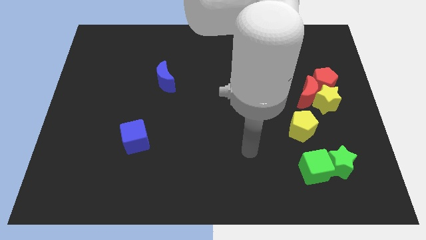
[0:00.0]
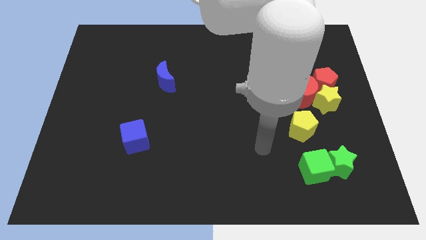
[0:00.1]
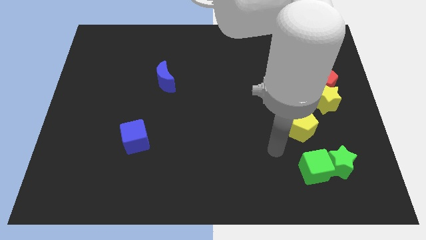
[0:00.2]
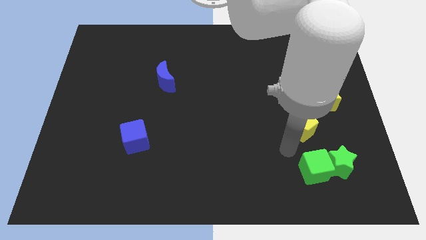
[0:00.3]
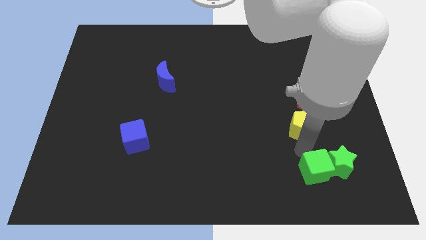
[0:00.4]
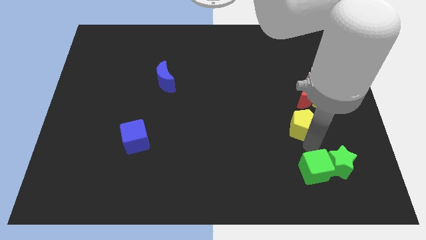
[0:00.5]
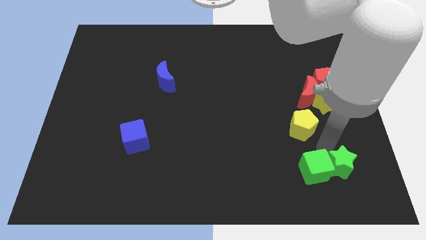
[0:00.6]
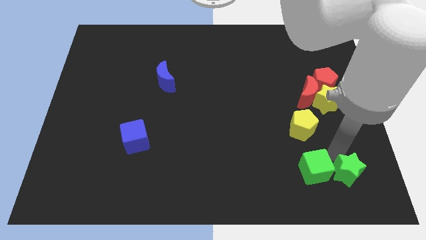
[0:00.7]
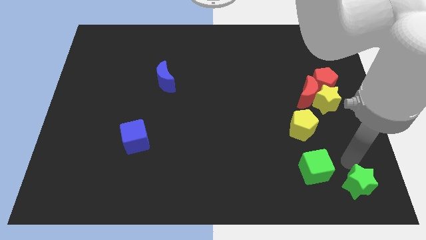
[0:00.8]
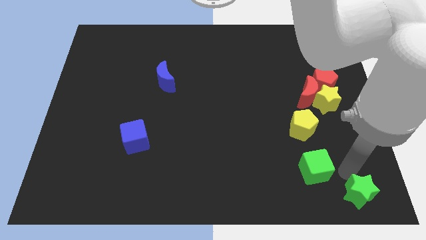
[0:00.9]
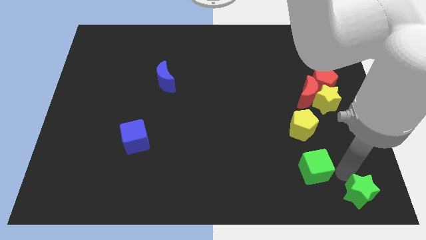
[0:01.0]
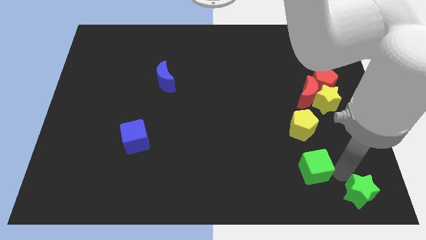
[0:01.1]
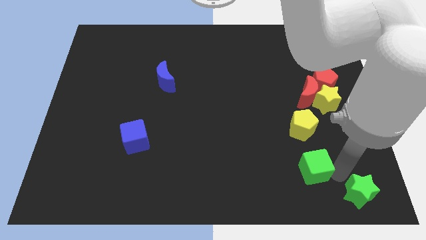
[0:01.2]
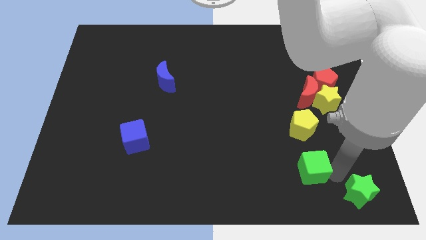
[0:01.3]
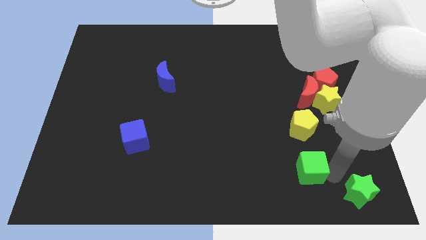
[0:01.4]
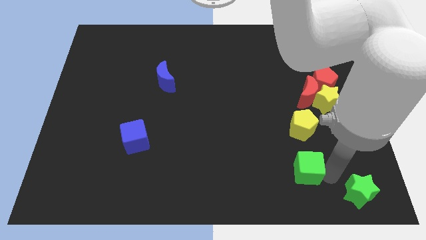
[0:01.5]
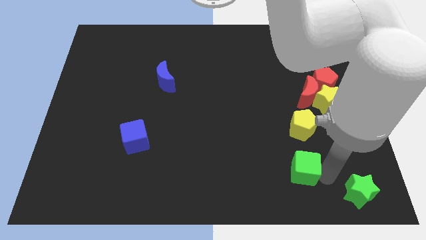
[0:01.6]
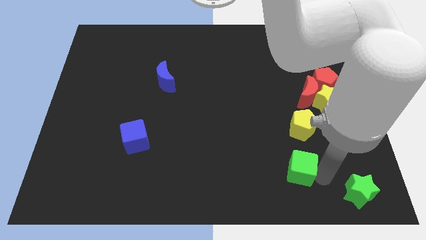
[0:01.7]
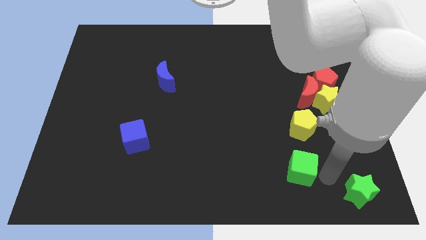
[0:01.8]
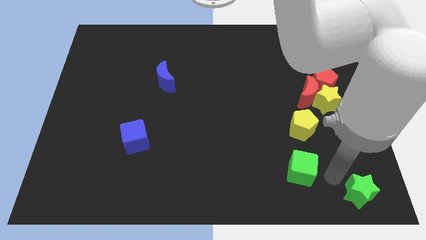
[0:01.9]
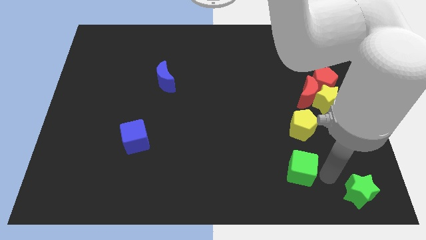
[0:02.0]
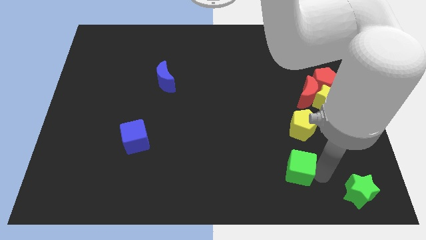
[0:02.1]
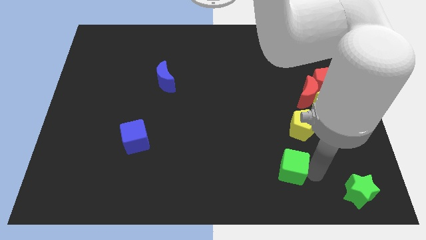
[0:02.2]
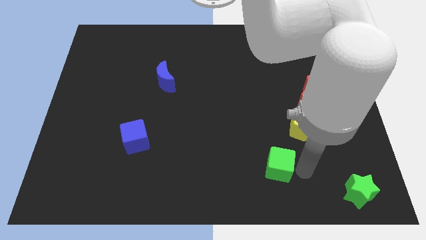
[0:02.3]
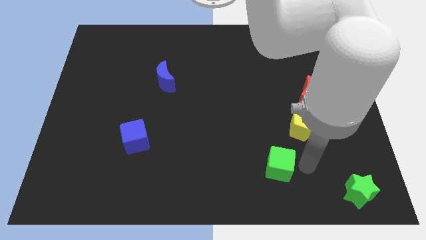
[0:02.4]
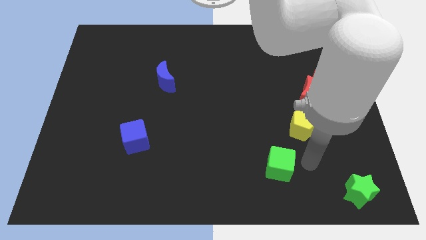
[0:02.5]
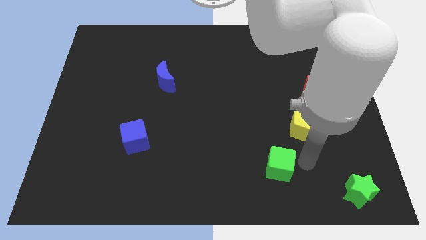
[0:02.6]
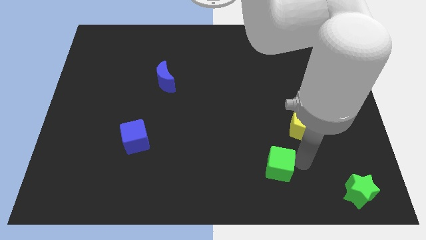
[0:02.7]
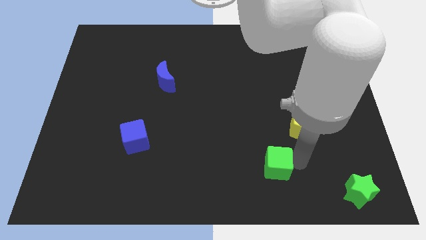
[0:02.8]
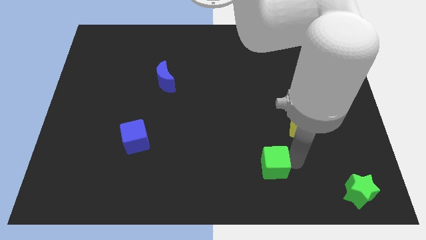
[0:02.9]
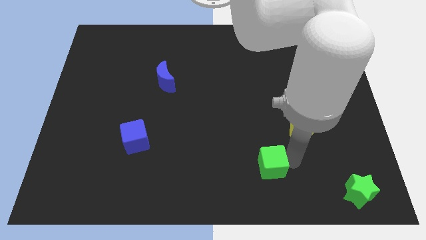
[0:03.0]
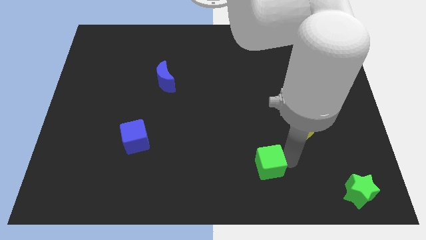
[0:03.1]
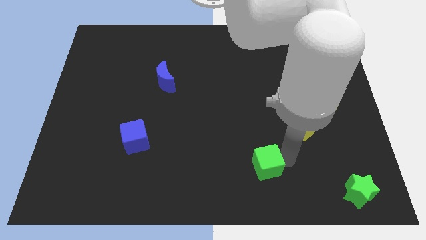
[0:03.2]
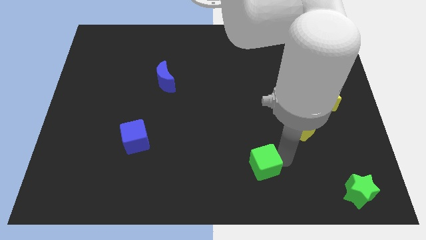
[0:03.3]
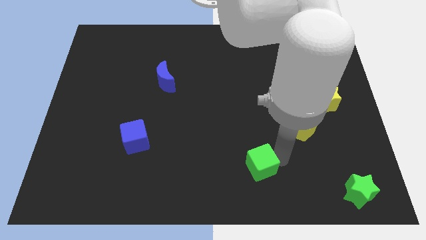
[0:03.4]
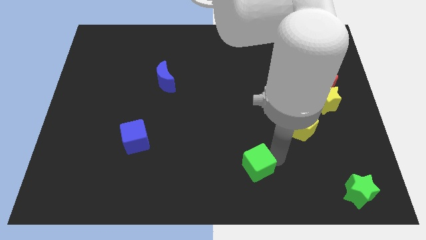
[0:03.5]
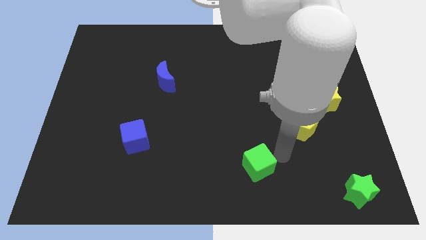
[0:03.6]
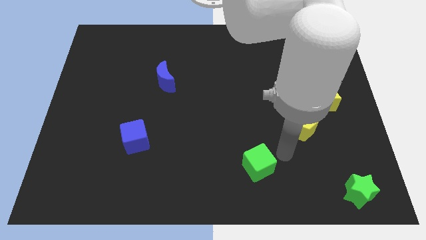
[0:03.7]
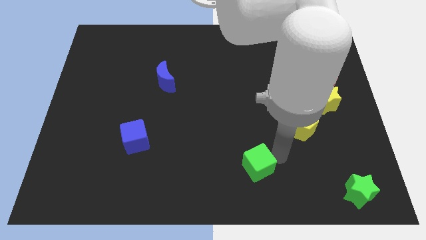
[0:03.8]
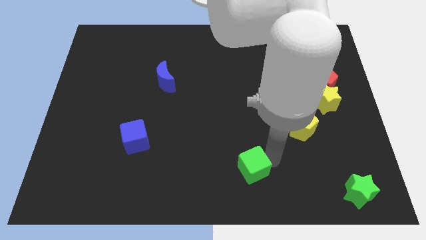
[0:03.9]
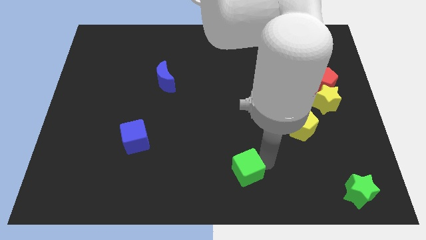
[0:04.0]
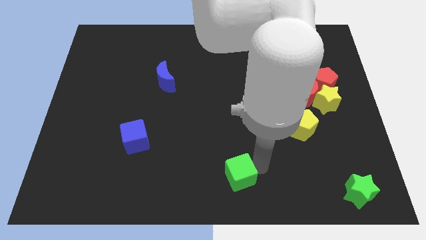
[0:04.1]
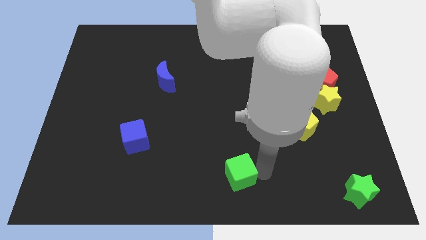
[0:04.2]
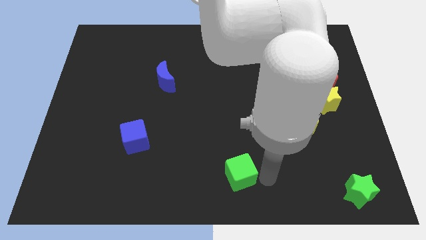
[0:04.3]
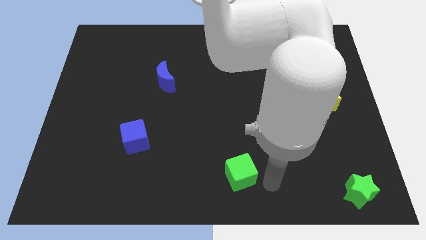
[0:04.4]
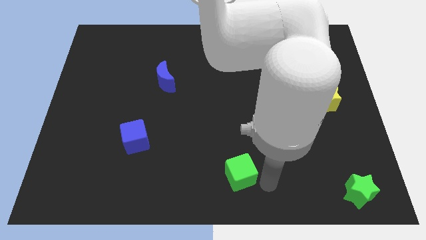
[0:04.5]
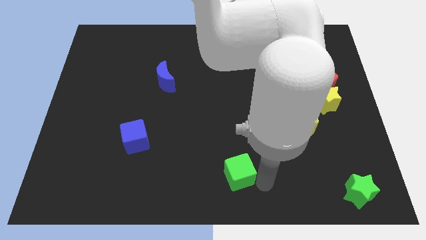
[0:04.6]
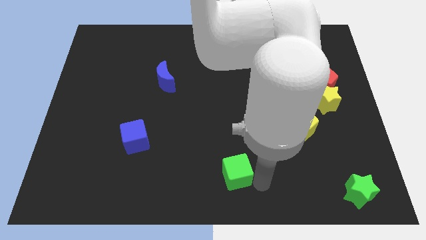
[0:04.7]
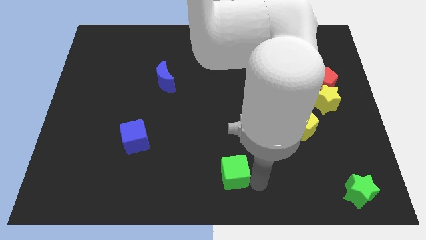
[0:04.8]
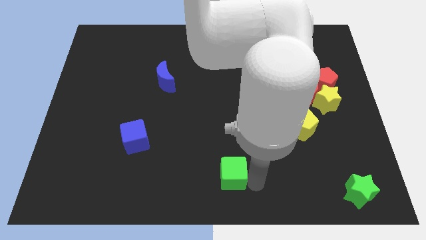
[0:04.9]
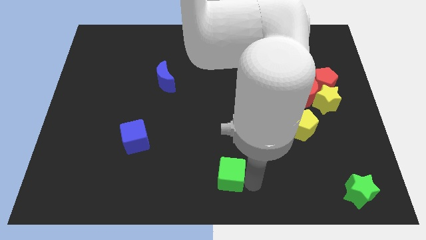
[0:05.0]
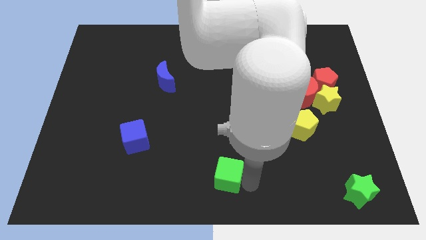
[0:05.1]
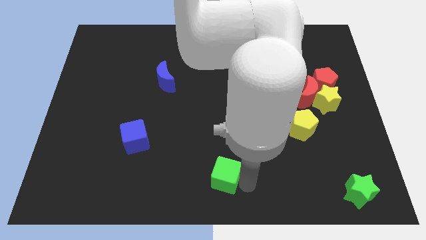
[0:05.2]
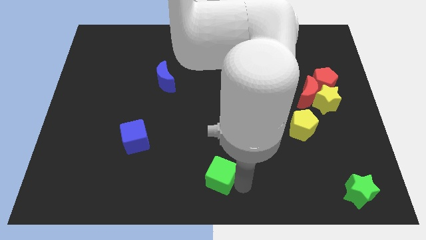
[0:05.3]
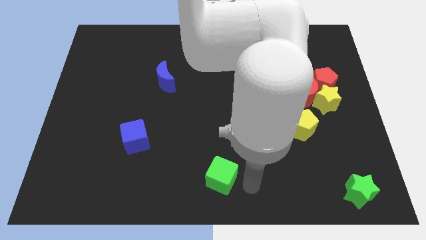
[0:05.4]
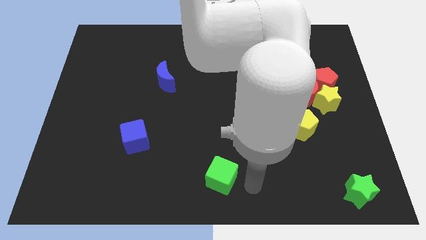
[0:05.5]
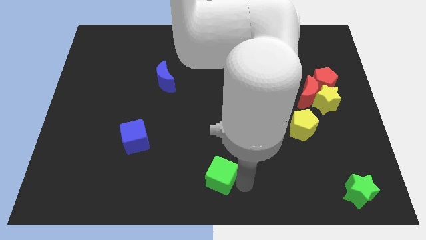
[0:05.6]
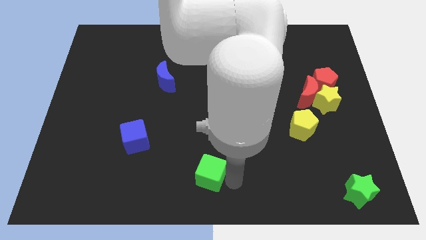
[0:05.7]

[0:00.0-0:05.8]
push the green cube left

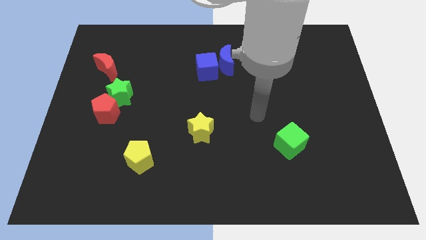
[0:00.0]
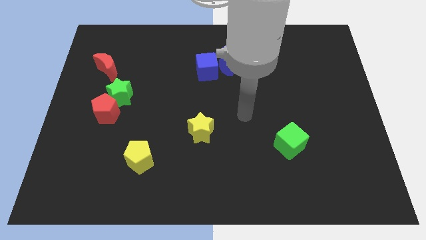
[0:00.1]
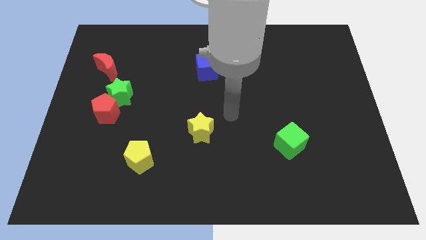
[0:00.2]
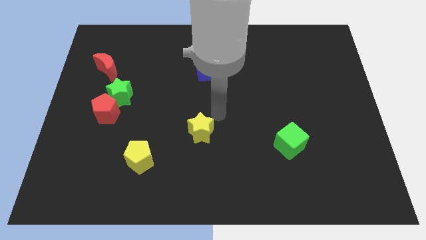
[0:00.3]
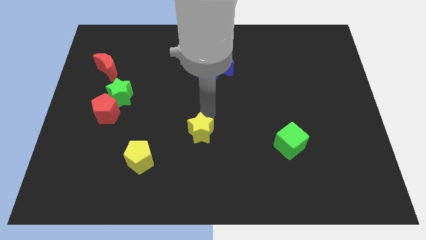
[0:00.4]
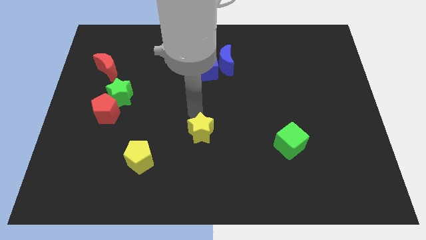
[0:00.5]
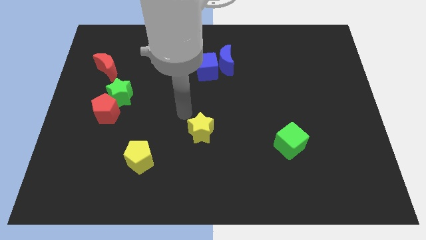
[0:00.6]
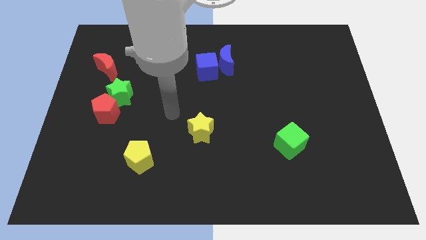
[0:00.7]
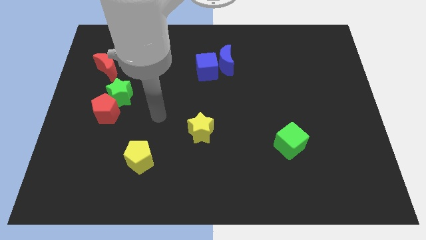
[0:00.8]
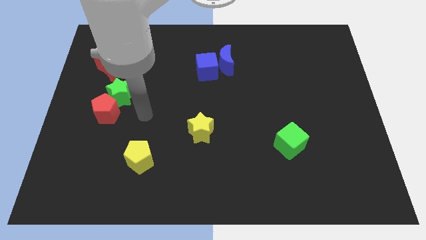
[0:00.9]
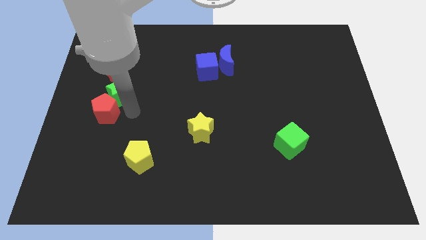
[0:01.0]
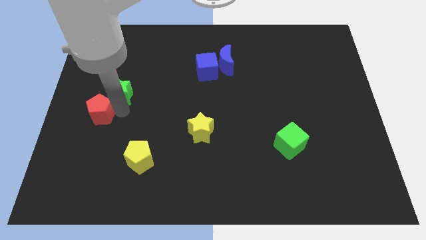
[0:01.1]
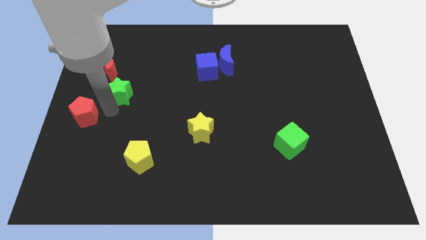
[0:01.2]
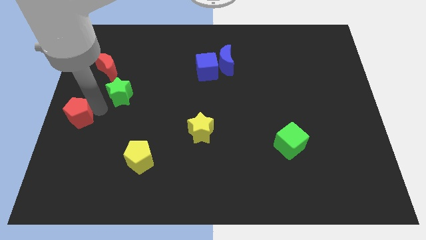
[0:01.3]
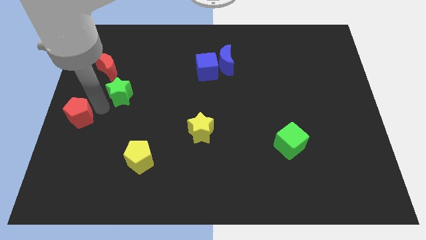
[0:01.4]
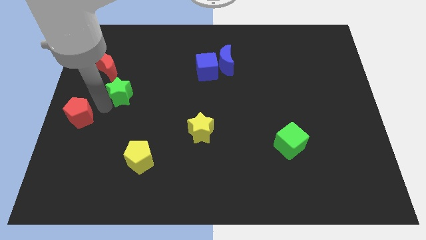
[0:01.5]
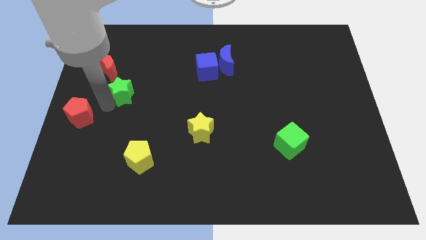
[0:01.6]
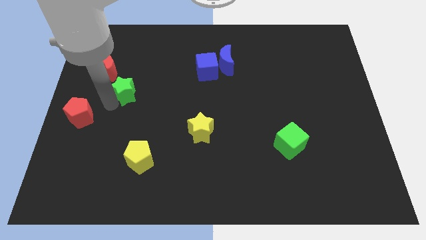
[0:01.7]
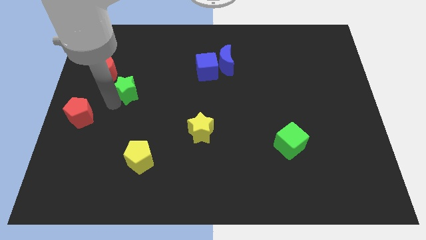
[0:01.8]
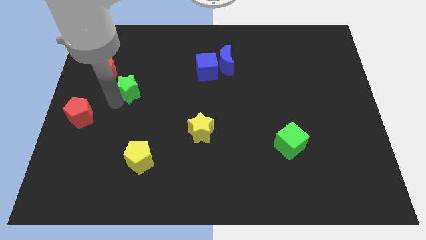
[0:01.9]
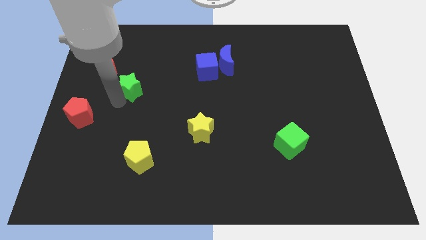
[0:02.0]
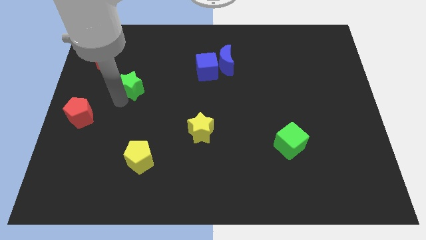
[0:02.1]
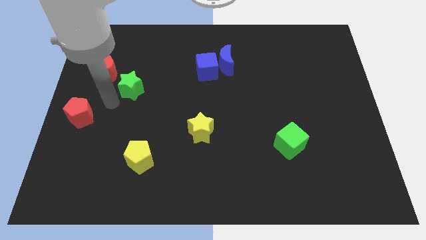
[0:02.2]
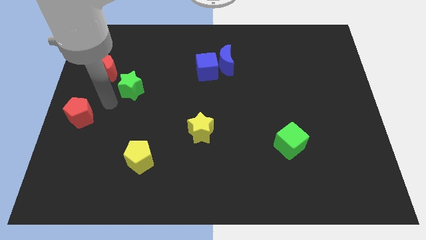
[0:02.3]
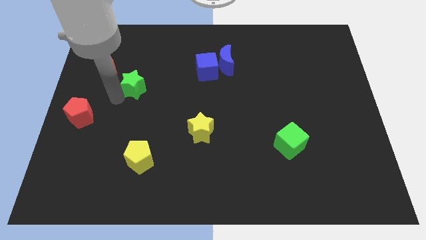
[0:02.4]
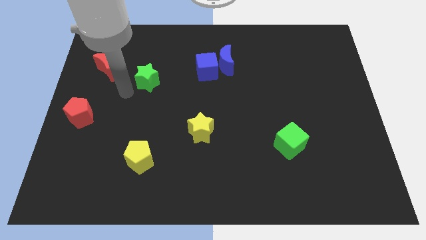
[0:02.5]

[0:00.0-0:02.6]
push the green star a little up and to the right
